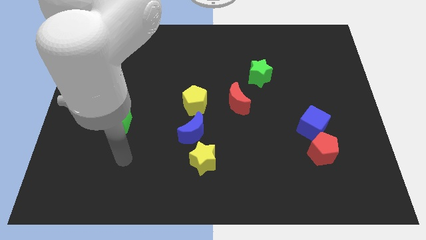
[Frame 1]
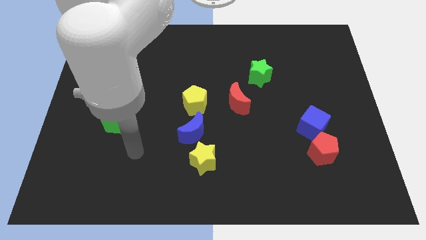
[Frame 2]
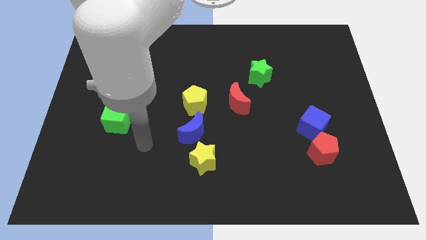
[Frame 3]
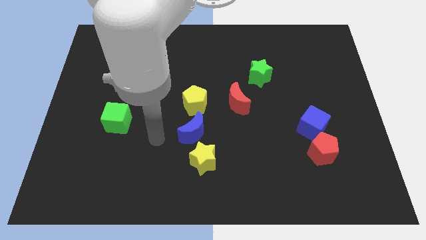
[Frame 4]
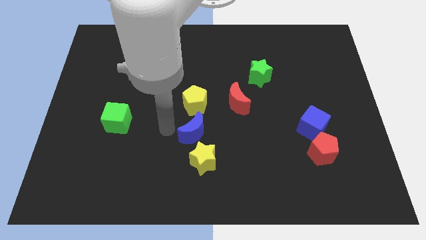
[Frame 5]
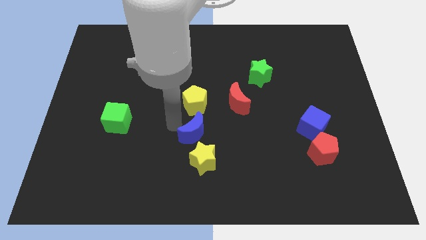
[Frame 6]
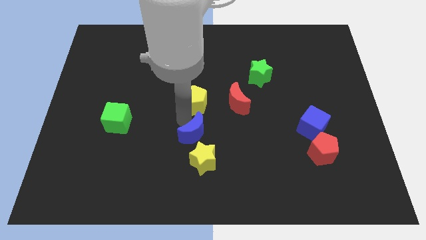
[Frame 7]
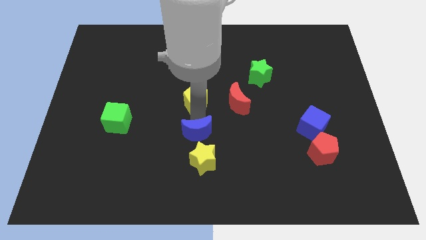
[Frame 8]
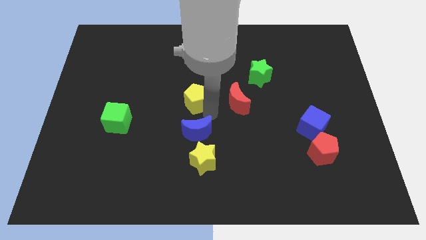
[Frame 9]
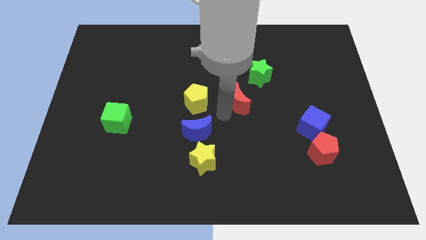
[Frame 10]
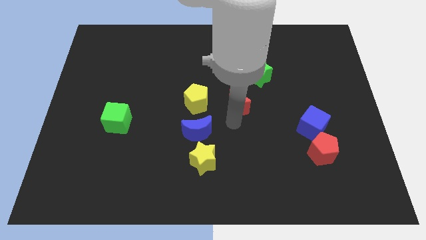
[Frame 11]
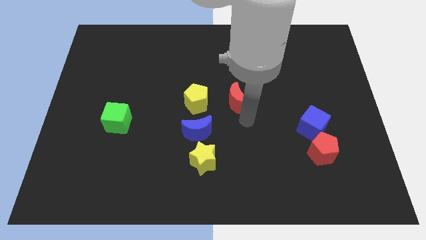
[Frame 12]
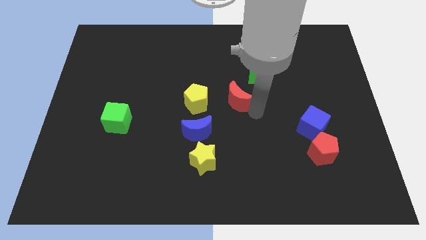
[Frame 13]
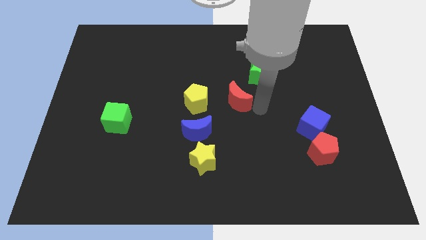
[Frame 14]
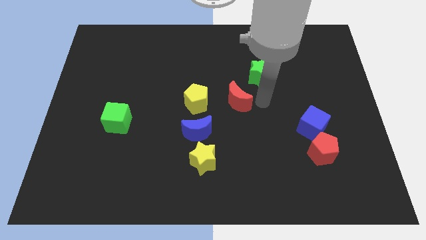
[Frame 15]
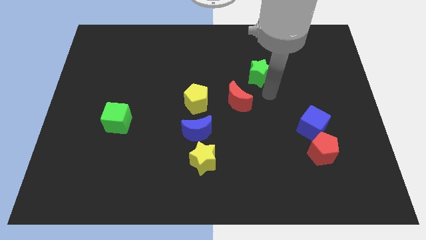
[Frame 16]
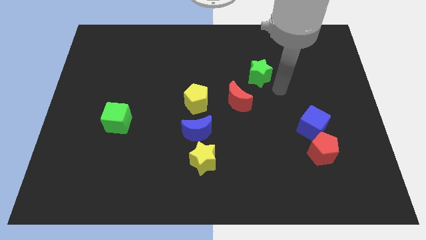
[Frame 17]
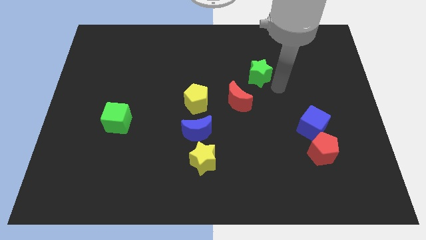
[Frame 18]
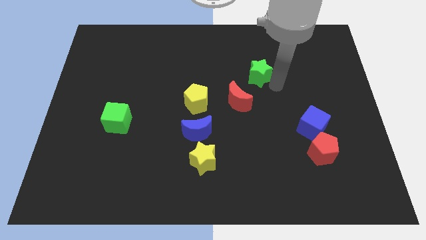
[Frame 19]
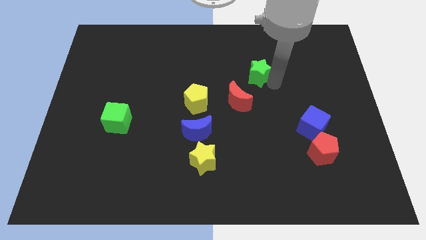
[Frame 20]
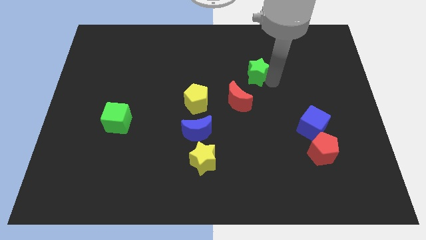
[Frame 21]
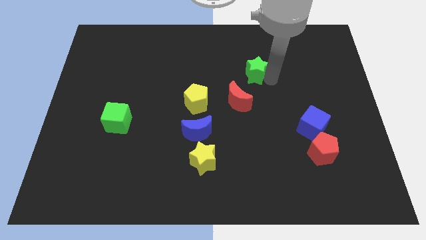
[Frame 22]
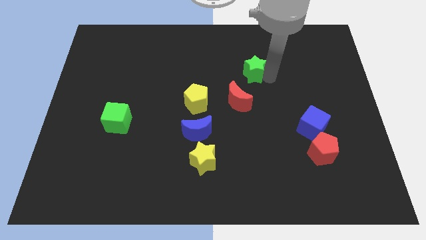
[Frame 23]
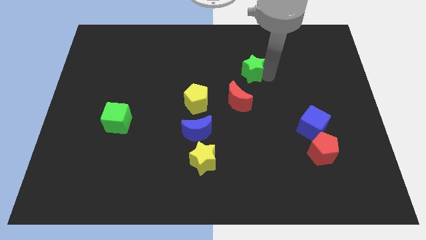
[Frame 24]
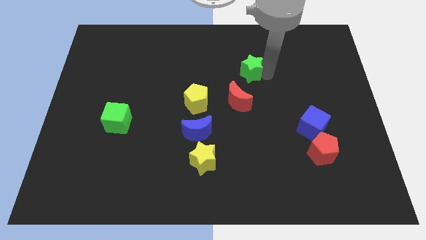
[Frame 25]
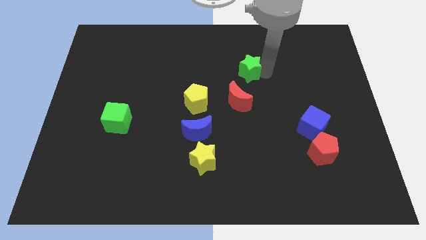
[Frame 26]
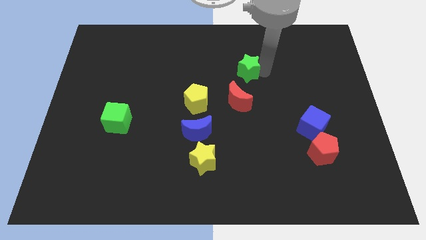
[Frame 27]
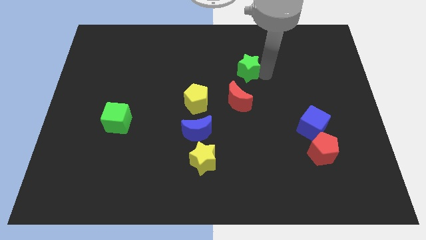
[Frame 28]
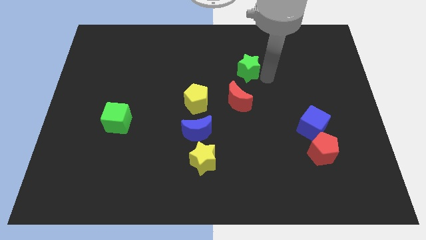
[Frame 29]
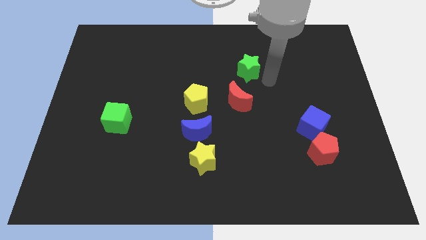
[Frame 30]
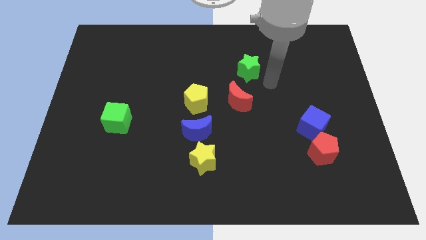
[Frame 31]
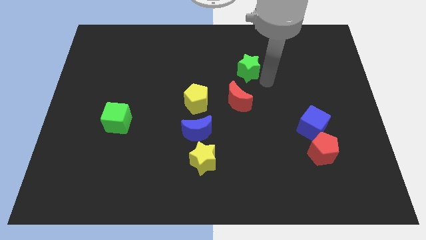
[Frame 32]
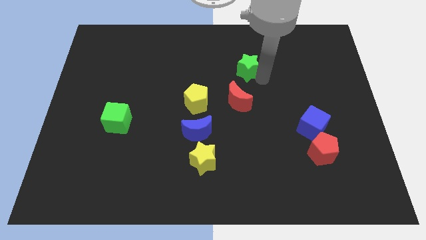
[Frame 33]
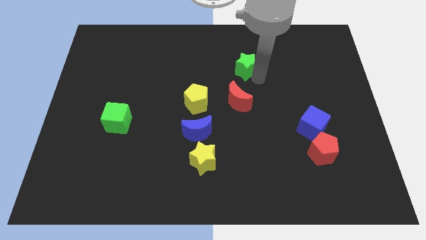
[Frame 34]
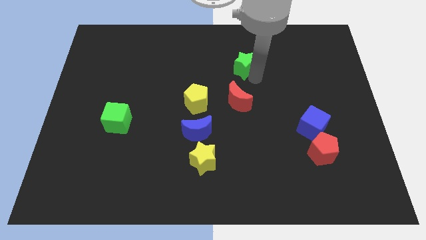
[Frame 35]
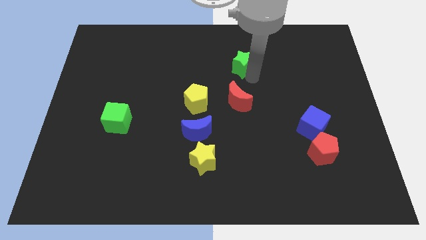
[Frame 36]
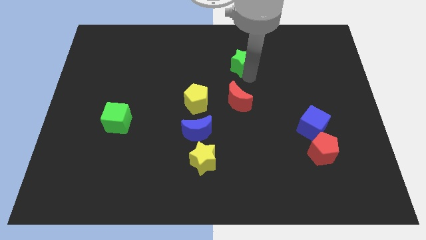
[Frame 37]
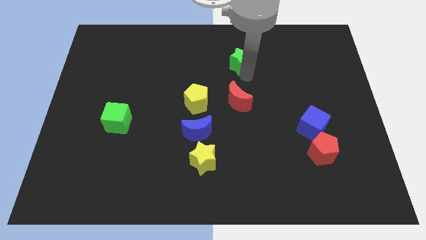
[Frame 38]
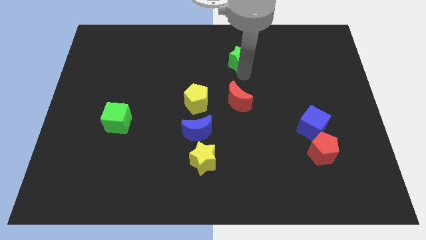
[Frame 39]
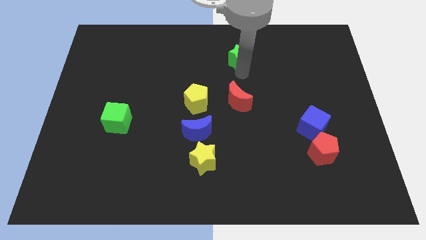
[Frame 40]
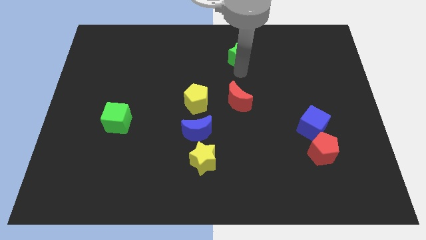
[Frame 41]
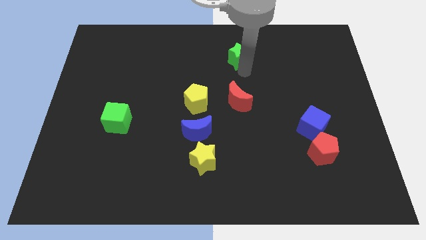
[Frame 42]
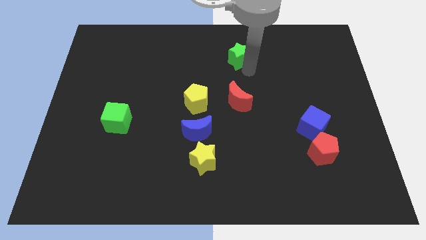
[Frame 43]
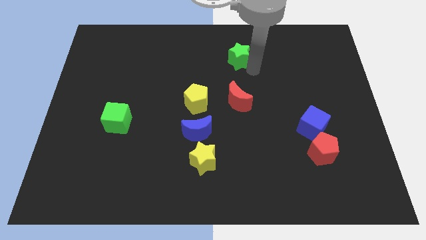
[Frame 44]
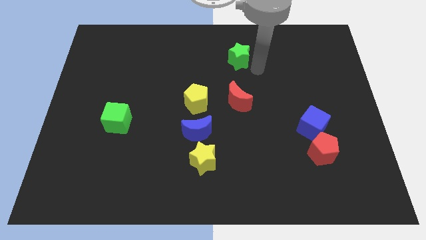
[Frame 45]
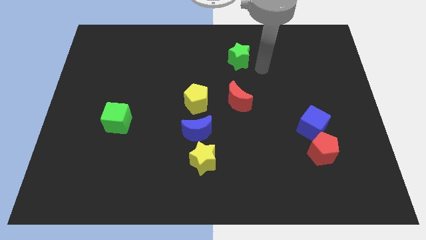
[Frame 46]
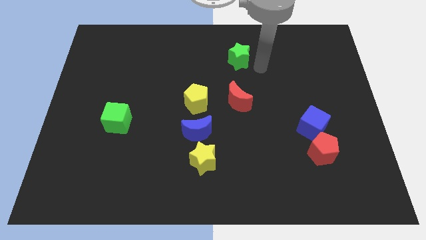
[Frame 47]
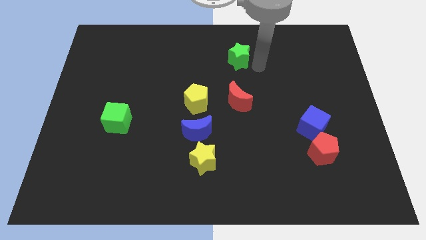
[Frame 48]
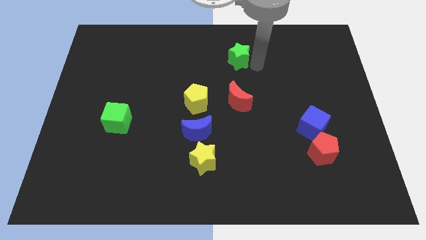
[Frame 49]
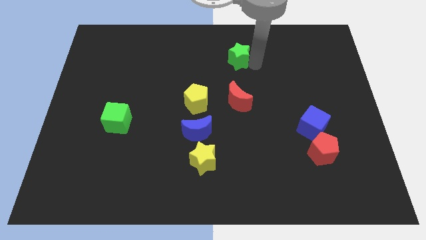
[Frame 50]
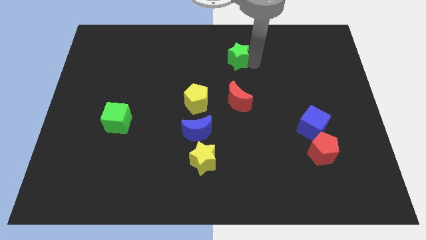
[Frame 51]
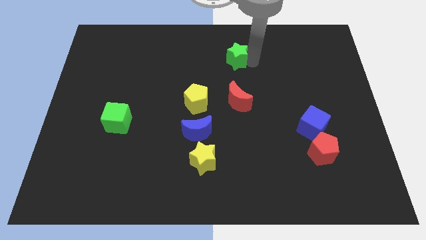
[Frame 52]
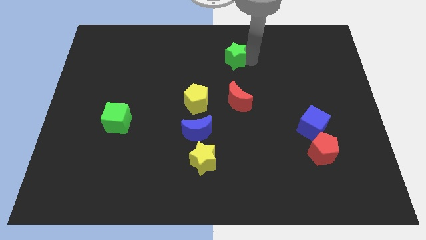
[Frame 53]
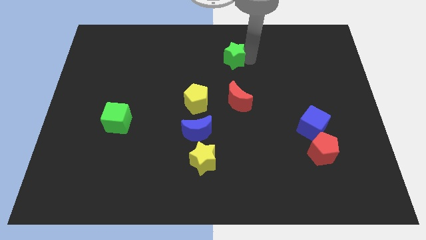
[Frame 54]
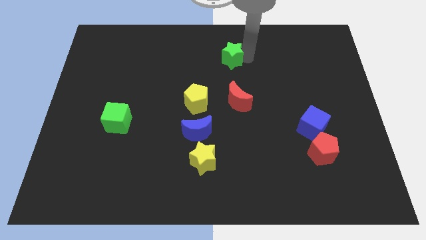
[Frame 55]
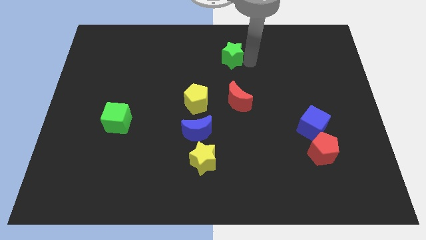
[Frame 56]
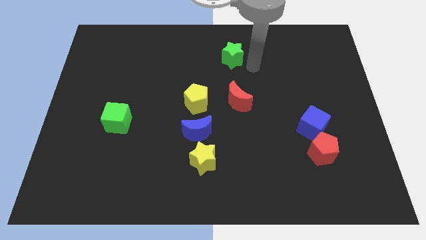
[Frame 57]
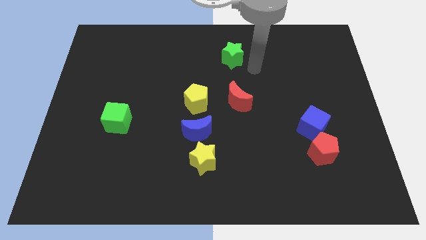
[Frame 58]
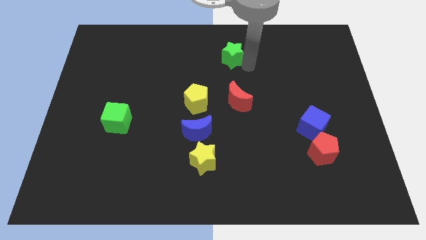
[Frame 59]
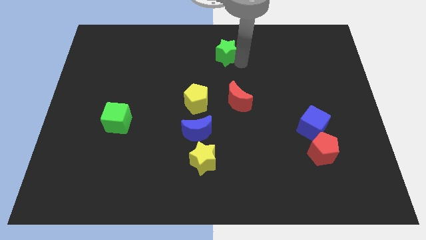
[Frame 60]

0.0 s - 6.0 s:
put the green star to the towards your base

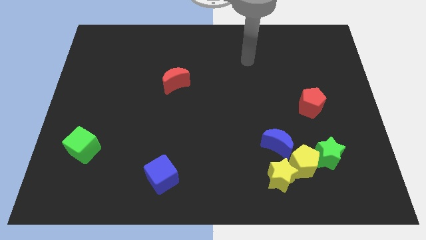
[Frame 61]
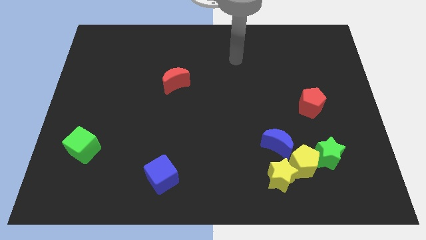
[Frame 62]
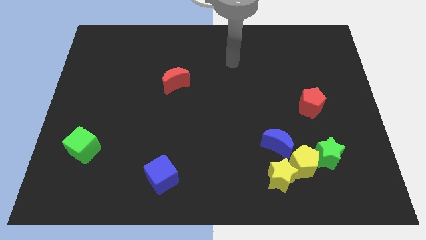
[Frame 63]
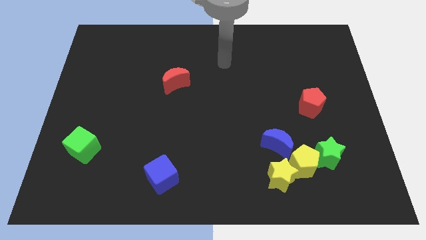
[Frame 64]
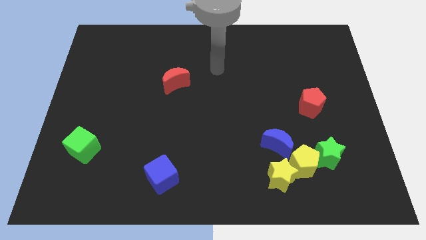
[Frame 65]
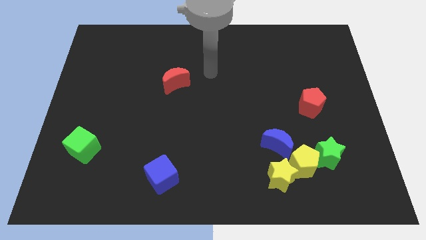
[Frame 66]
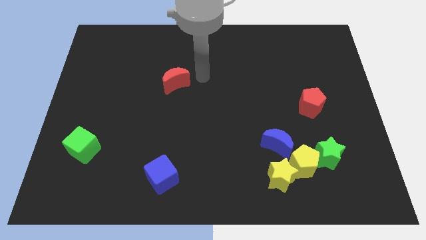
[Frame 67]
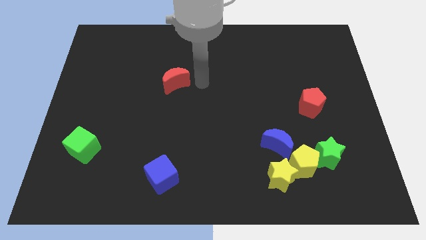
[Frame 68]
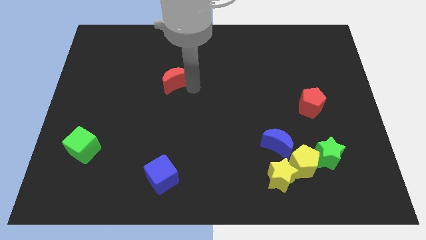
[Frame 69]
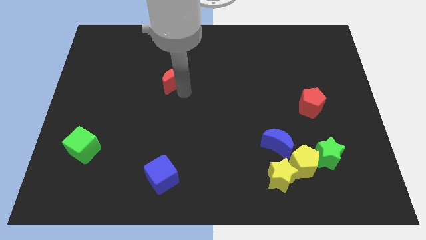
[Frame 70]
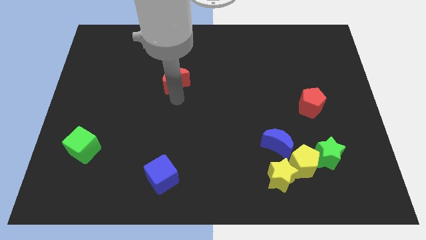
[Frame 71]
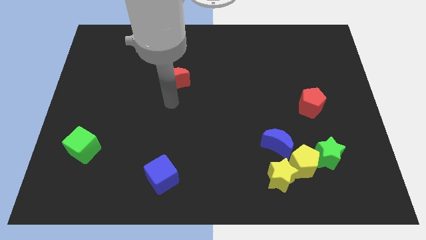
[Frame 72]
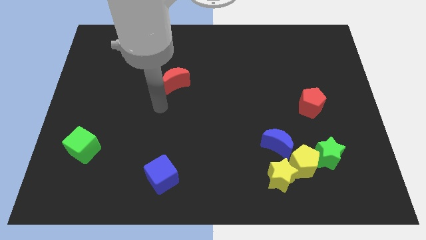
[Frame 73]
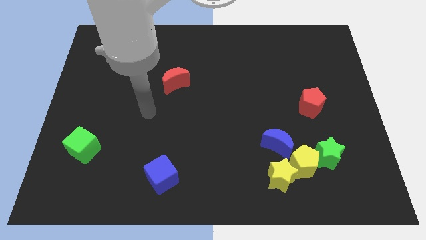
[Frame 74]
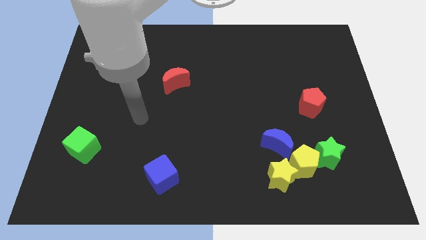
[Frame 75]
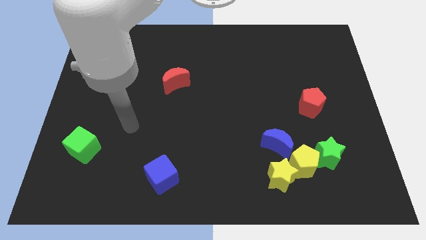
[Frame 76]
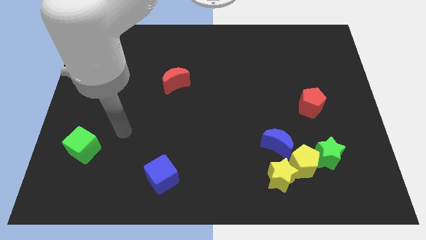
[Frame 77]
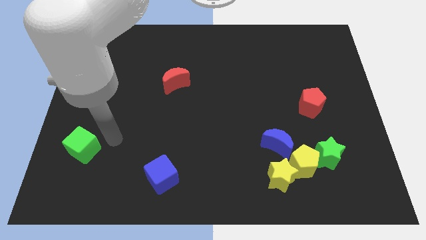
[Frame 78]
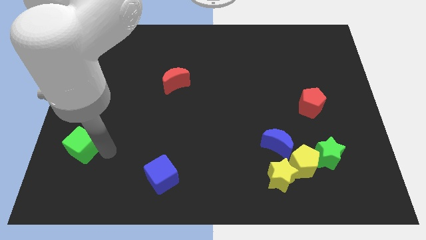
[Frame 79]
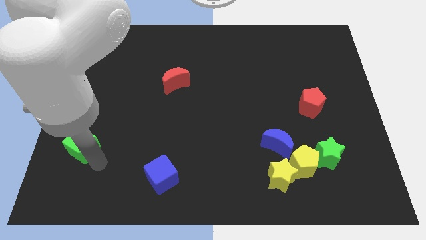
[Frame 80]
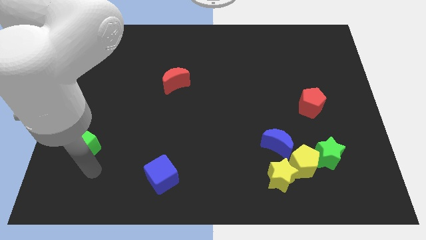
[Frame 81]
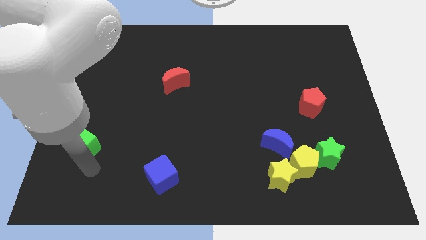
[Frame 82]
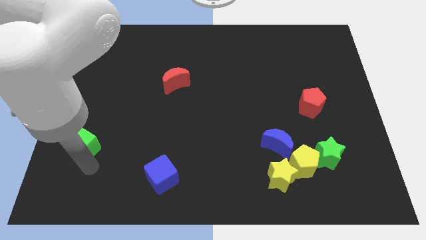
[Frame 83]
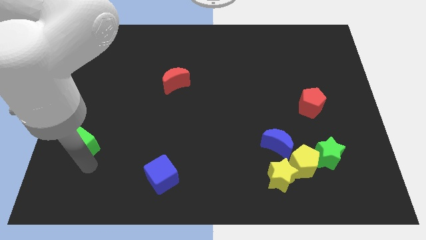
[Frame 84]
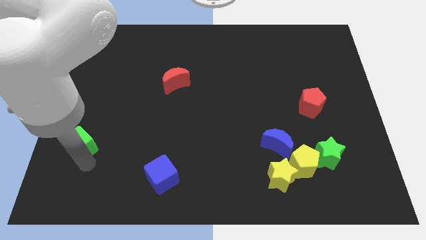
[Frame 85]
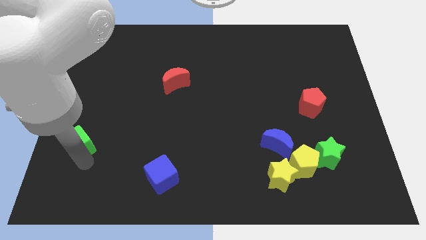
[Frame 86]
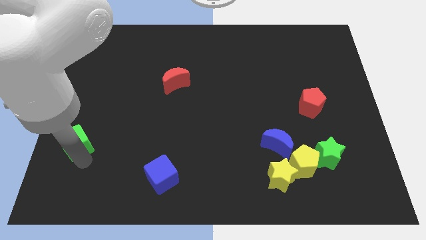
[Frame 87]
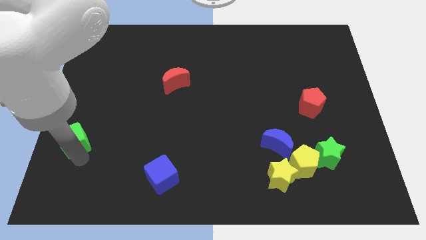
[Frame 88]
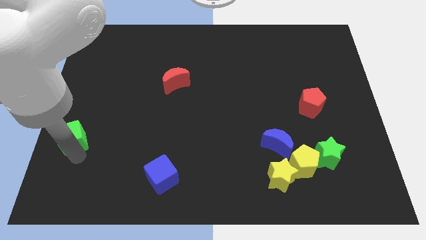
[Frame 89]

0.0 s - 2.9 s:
move the green cube to the center left
